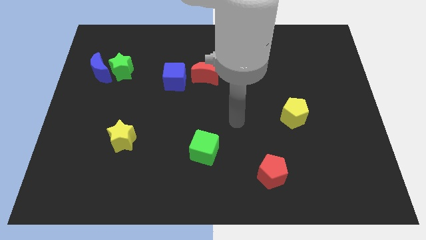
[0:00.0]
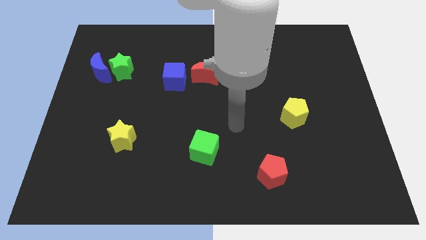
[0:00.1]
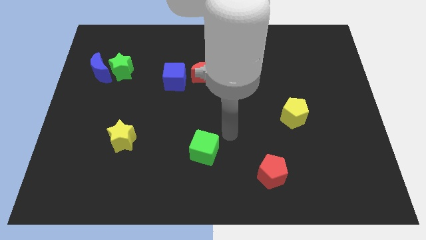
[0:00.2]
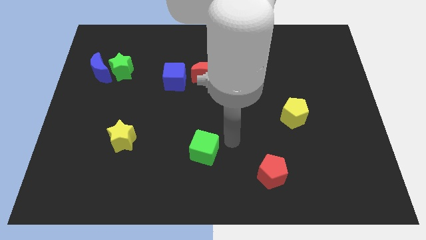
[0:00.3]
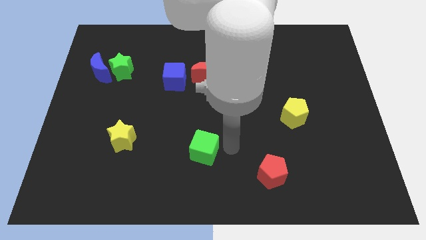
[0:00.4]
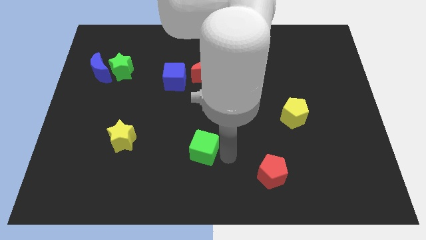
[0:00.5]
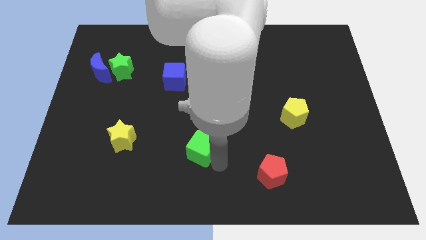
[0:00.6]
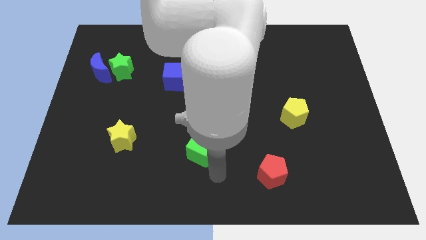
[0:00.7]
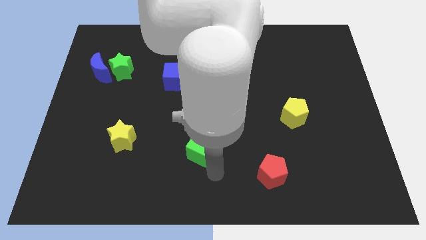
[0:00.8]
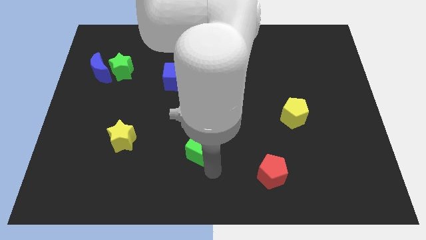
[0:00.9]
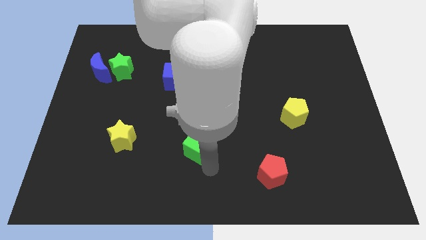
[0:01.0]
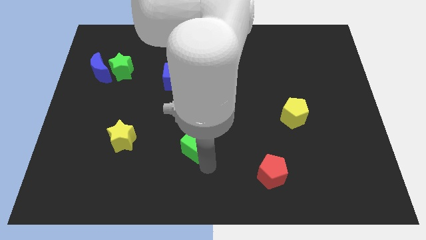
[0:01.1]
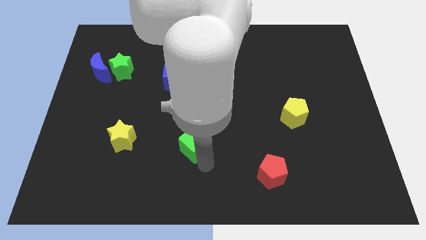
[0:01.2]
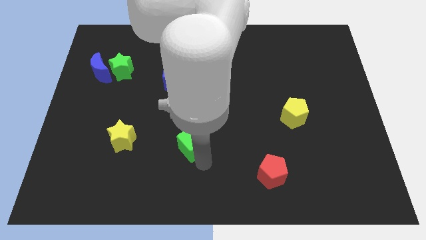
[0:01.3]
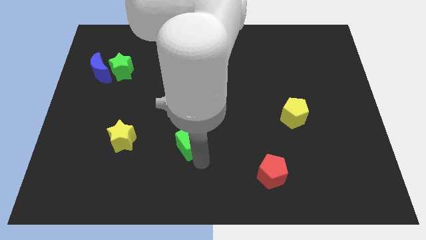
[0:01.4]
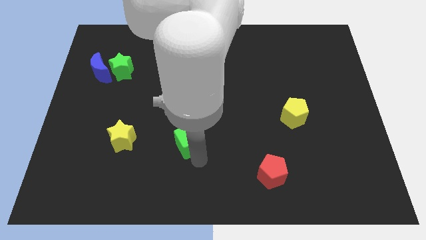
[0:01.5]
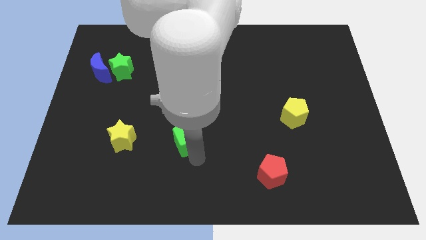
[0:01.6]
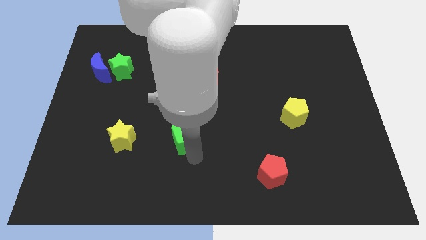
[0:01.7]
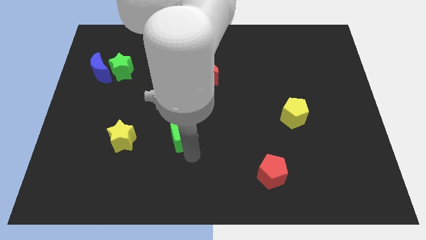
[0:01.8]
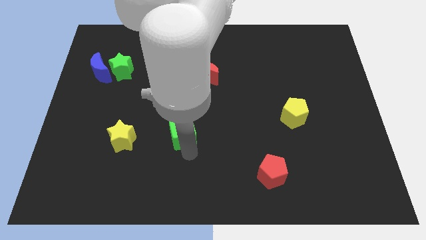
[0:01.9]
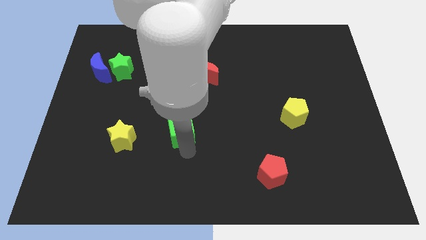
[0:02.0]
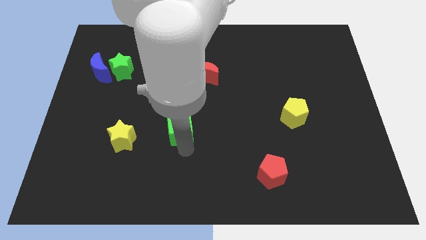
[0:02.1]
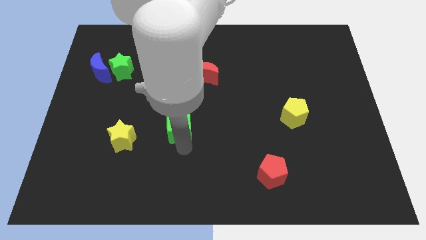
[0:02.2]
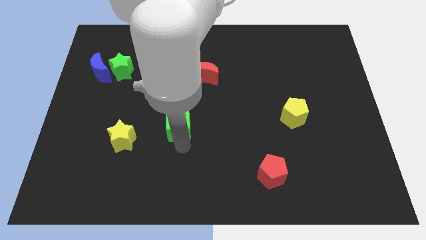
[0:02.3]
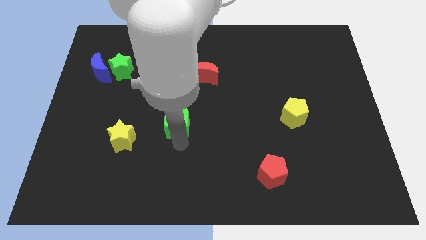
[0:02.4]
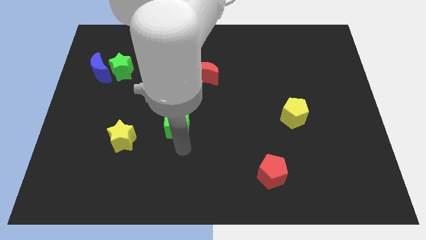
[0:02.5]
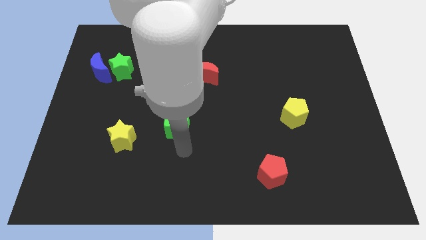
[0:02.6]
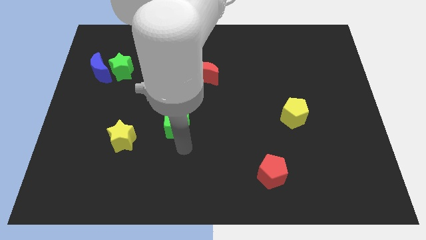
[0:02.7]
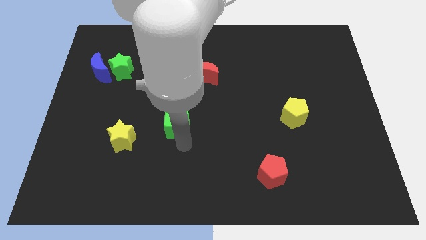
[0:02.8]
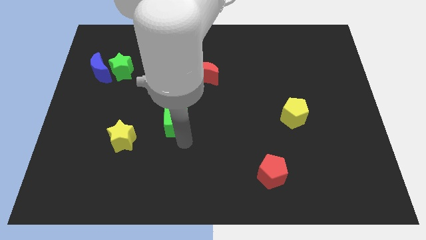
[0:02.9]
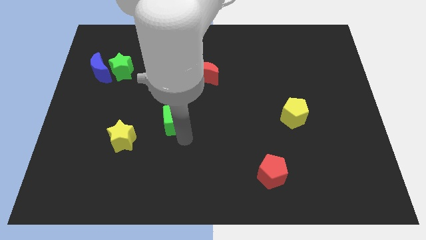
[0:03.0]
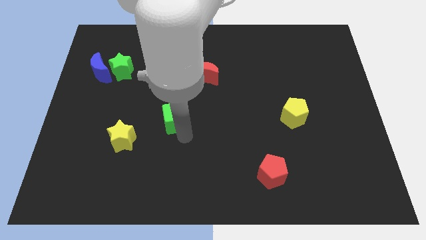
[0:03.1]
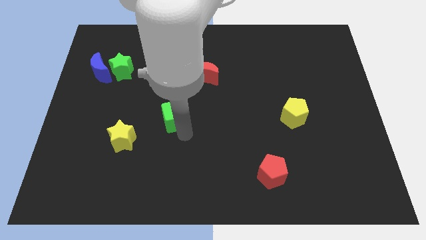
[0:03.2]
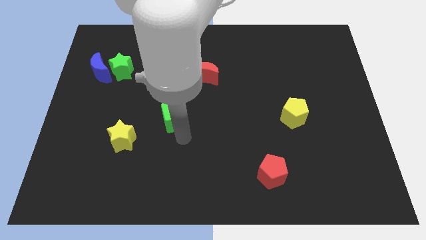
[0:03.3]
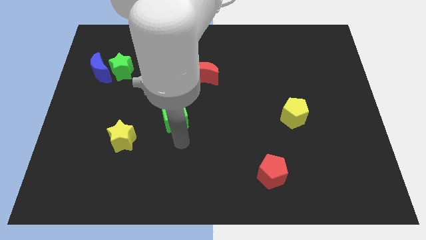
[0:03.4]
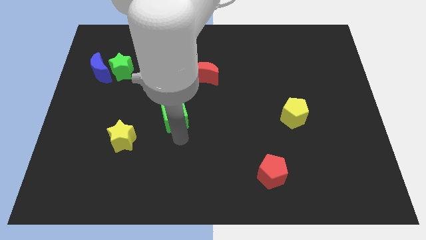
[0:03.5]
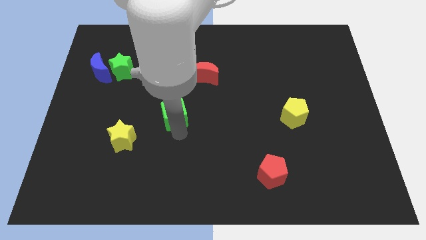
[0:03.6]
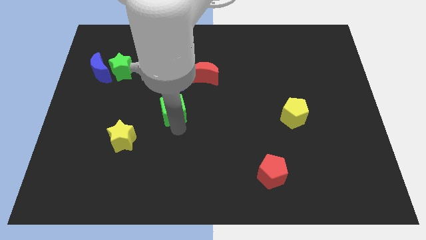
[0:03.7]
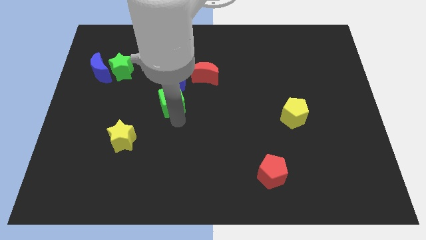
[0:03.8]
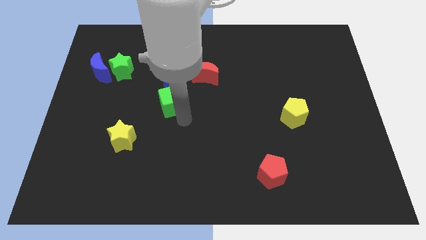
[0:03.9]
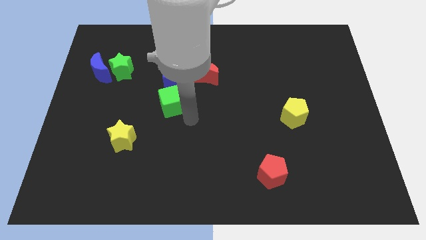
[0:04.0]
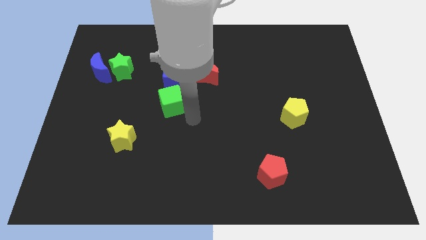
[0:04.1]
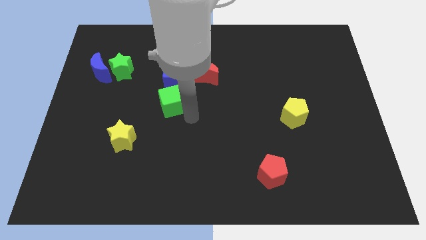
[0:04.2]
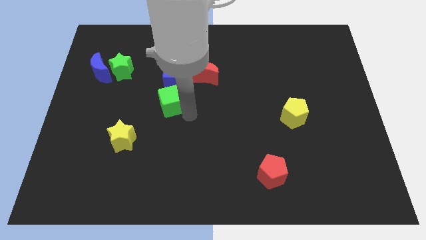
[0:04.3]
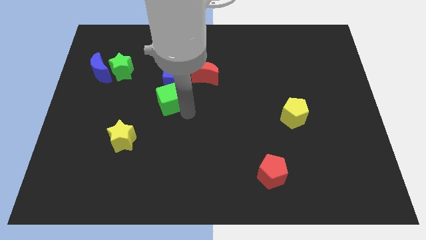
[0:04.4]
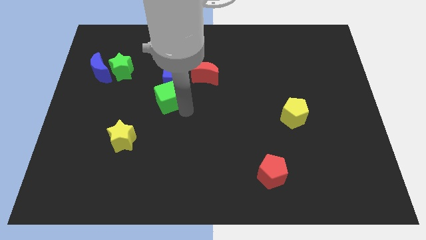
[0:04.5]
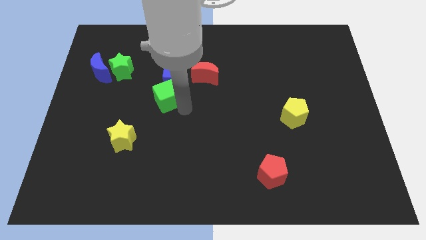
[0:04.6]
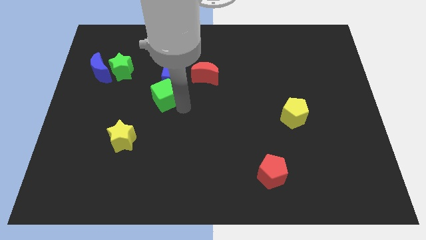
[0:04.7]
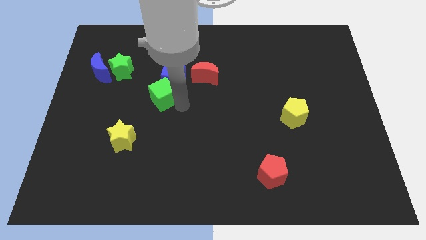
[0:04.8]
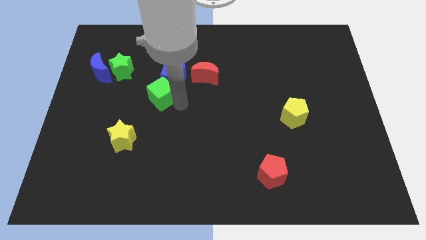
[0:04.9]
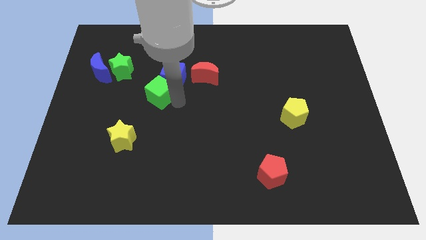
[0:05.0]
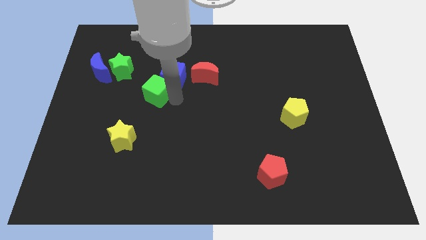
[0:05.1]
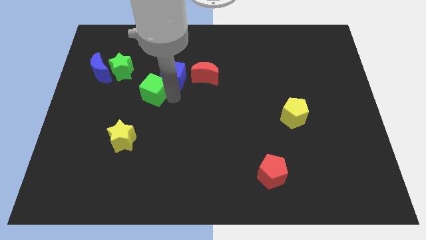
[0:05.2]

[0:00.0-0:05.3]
move the green cube to the left side of the blue cube

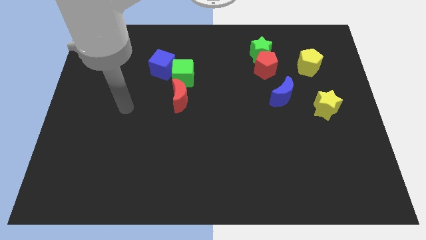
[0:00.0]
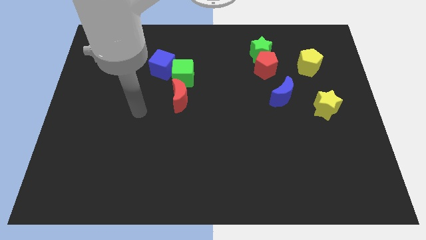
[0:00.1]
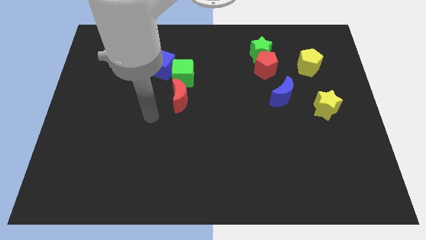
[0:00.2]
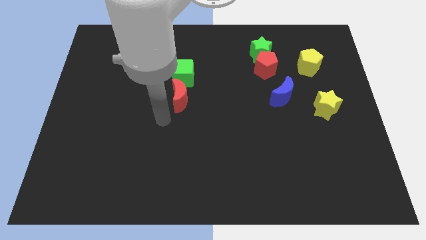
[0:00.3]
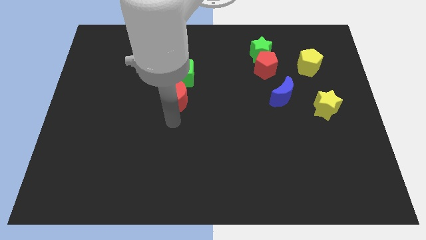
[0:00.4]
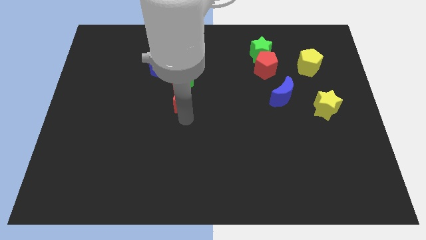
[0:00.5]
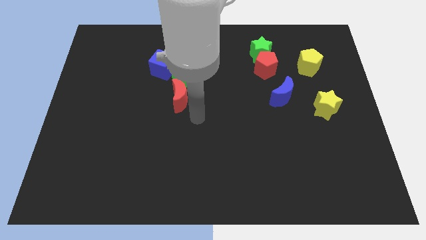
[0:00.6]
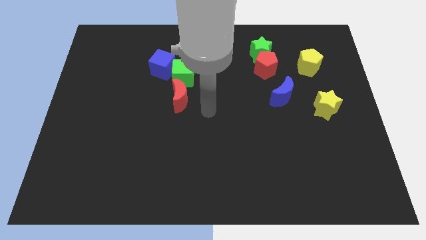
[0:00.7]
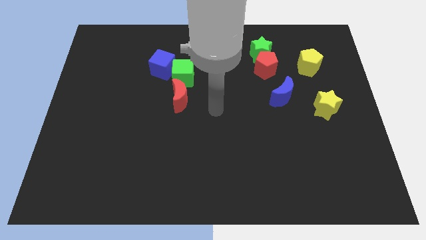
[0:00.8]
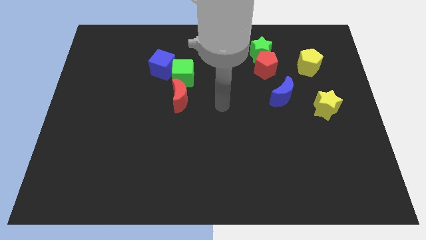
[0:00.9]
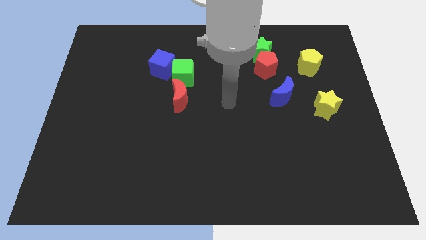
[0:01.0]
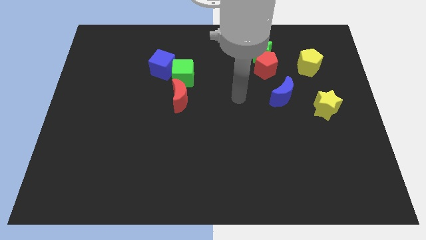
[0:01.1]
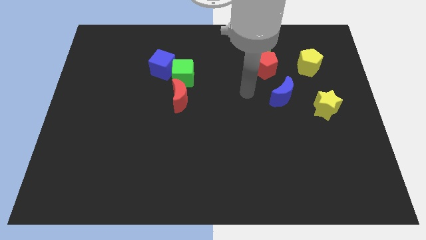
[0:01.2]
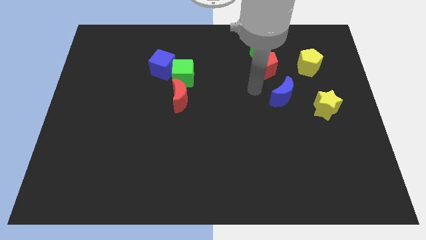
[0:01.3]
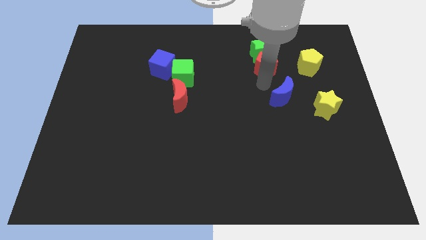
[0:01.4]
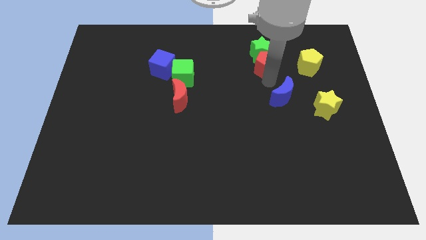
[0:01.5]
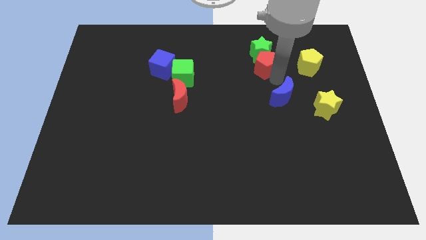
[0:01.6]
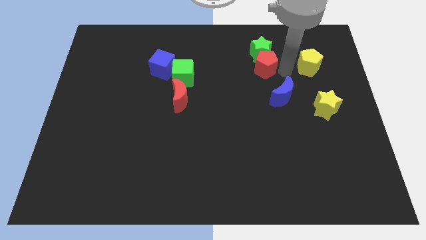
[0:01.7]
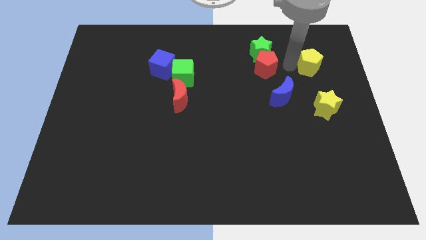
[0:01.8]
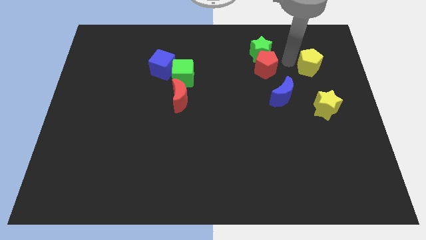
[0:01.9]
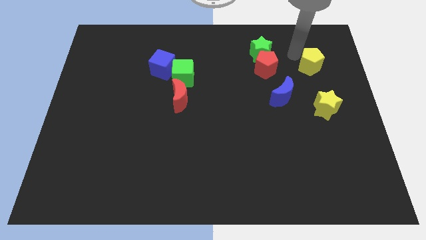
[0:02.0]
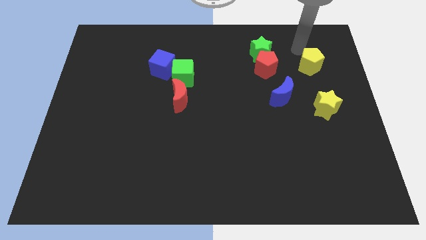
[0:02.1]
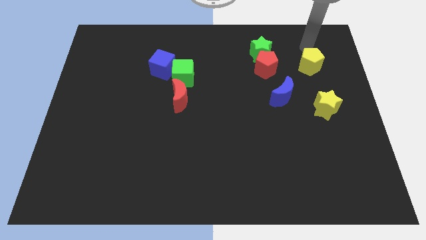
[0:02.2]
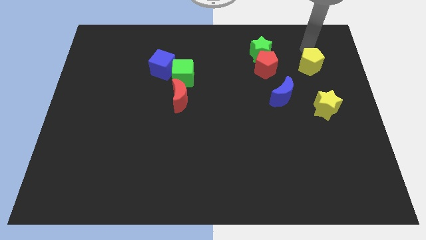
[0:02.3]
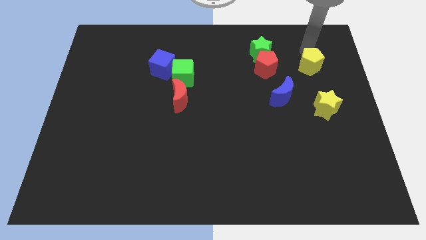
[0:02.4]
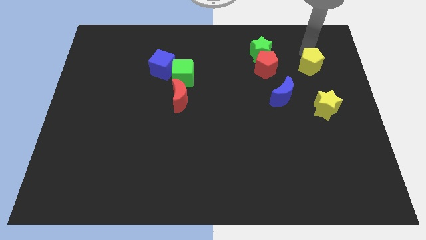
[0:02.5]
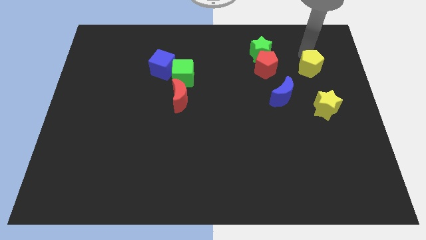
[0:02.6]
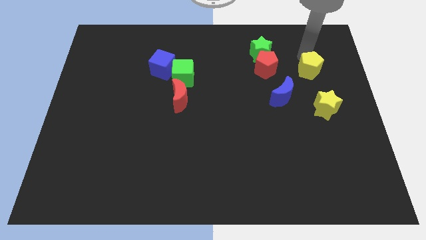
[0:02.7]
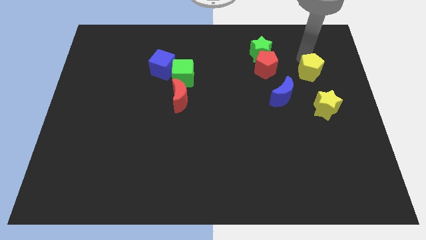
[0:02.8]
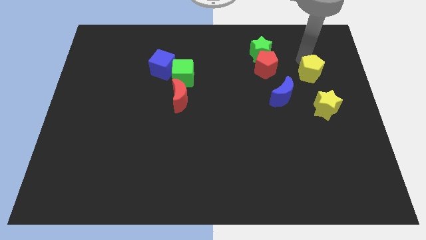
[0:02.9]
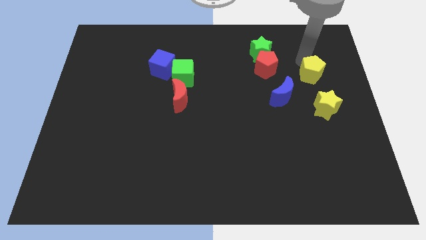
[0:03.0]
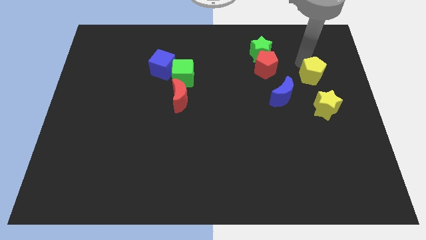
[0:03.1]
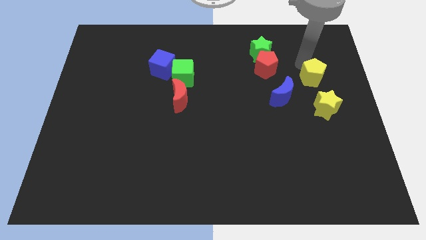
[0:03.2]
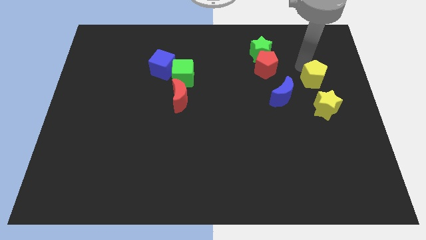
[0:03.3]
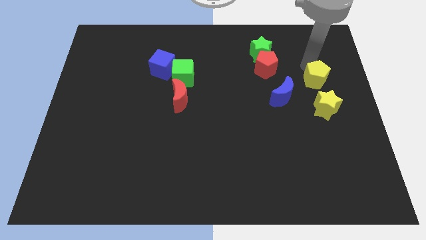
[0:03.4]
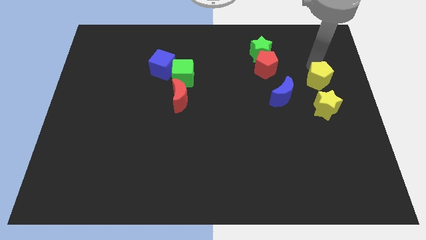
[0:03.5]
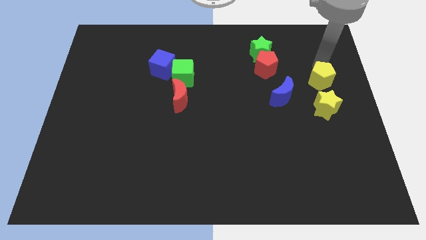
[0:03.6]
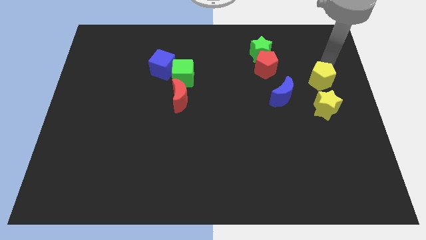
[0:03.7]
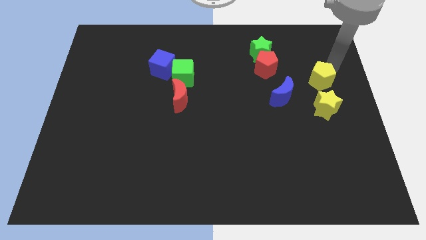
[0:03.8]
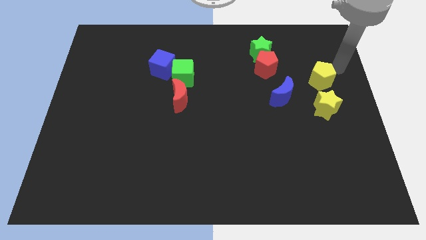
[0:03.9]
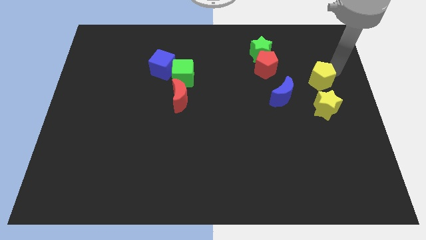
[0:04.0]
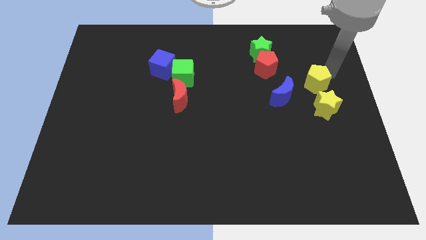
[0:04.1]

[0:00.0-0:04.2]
move the yellow pentagon diagonally up and to the left of the yellow star
